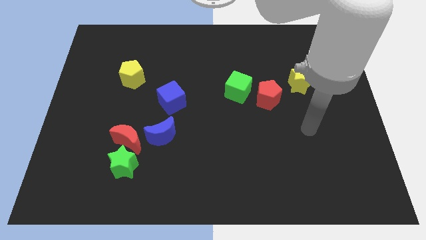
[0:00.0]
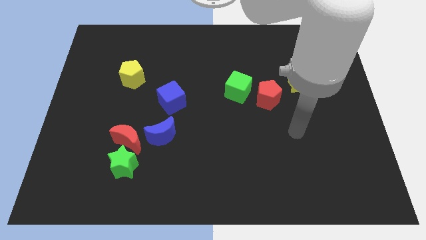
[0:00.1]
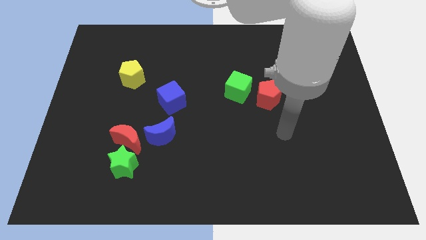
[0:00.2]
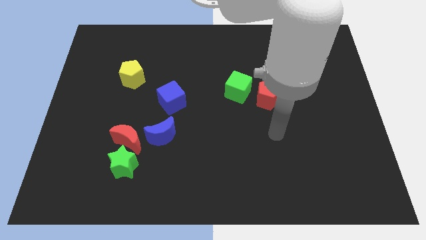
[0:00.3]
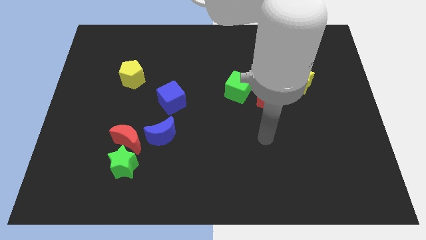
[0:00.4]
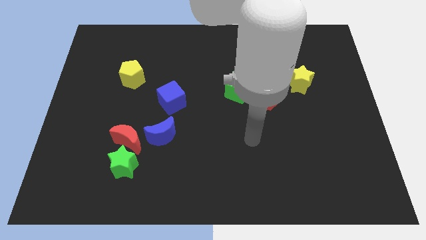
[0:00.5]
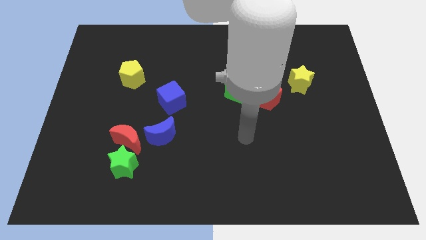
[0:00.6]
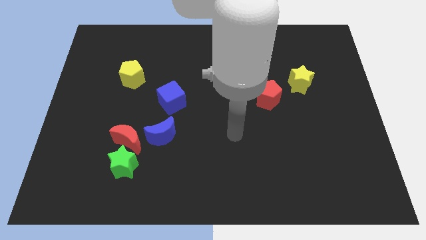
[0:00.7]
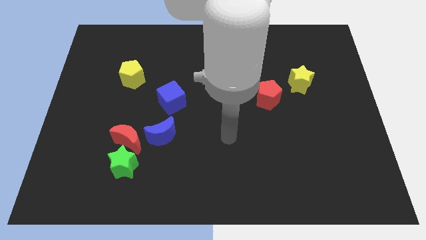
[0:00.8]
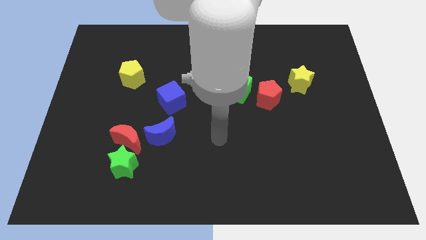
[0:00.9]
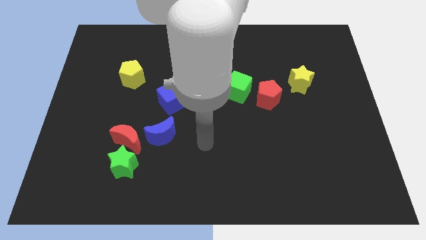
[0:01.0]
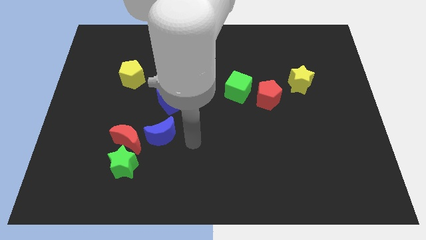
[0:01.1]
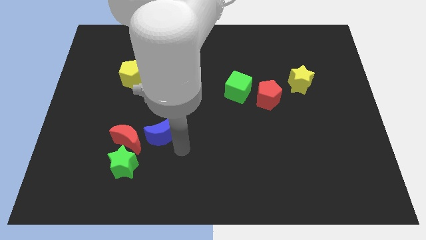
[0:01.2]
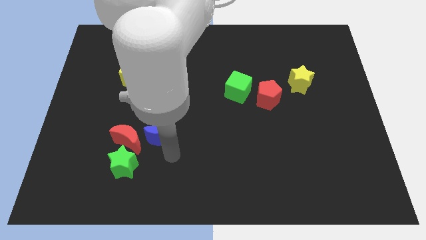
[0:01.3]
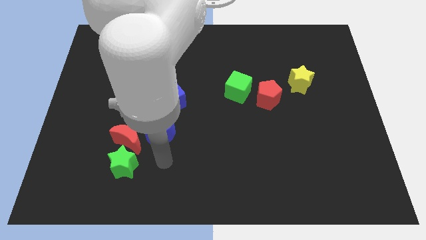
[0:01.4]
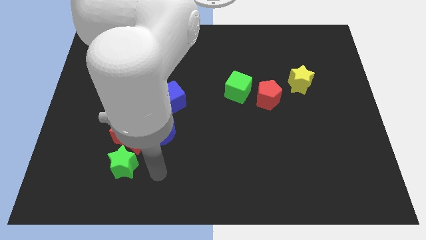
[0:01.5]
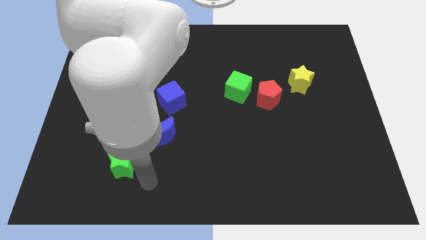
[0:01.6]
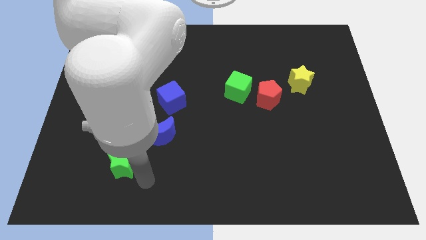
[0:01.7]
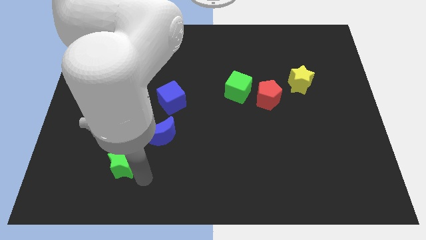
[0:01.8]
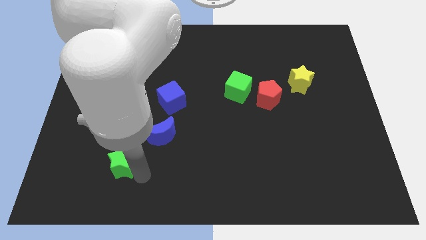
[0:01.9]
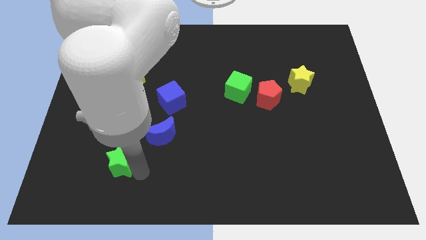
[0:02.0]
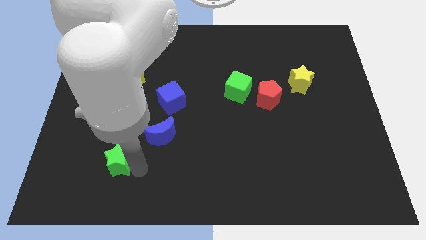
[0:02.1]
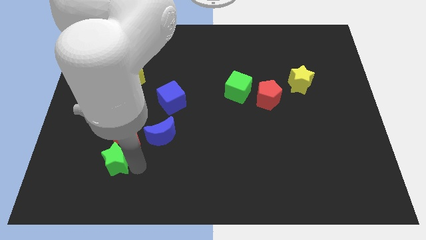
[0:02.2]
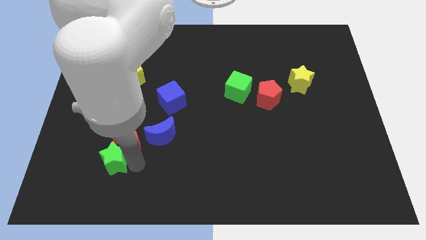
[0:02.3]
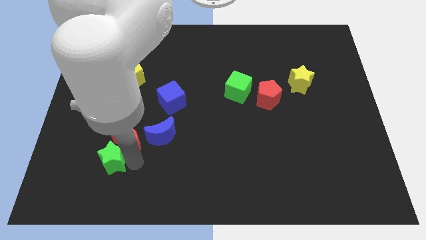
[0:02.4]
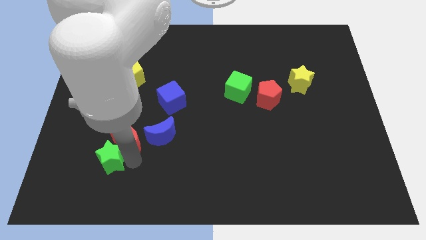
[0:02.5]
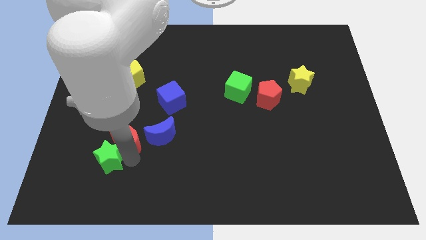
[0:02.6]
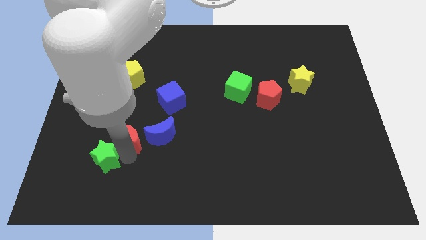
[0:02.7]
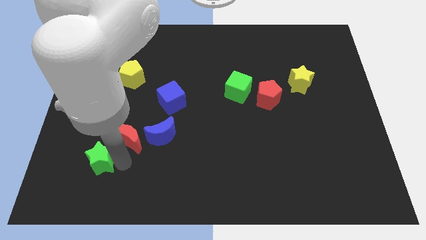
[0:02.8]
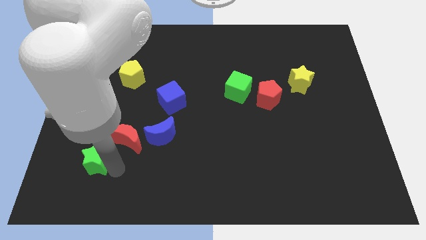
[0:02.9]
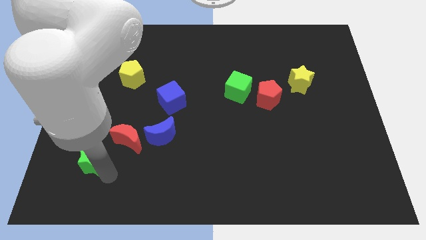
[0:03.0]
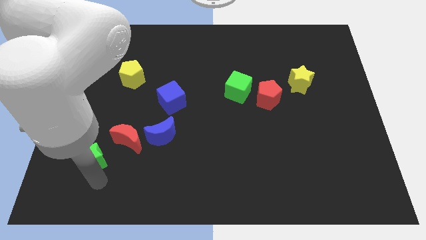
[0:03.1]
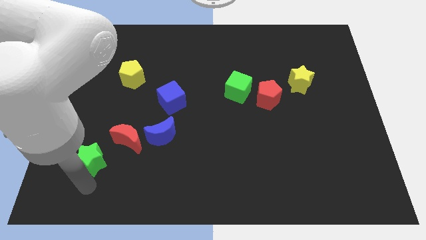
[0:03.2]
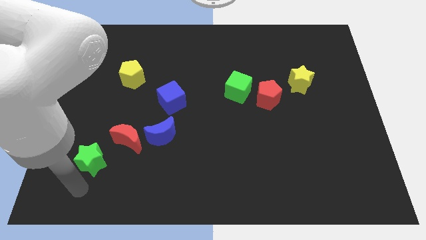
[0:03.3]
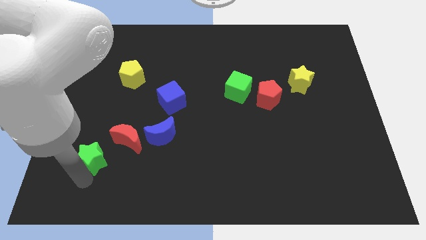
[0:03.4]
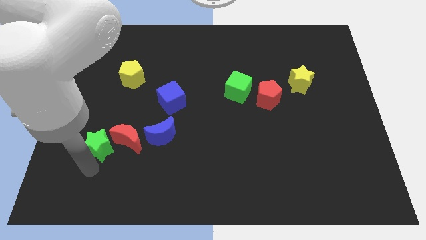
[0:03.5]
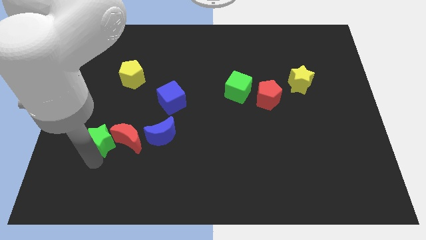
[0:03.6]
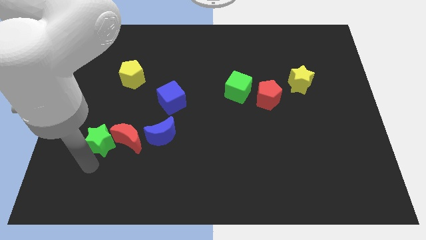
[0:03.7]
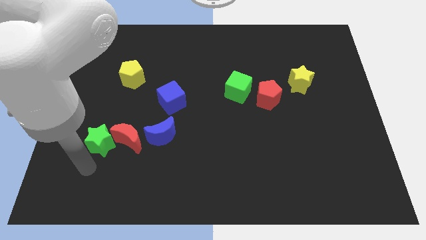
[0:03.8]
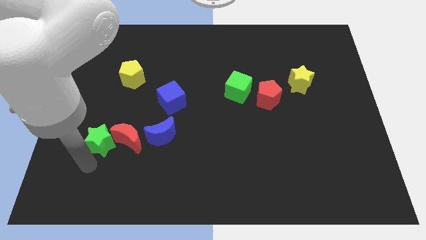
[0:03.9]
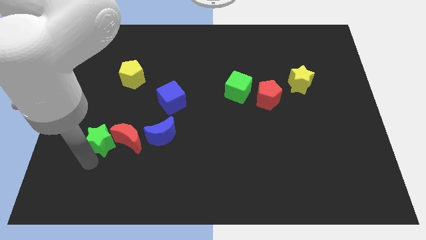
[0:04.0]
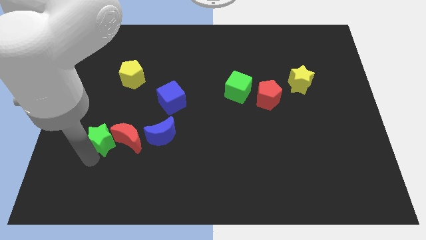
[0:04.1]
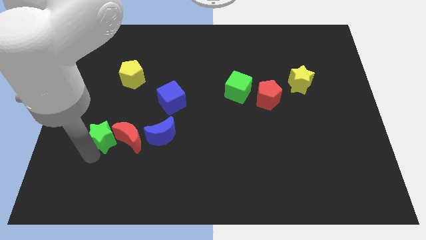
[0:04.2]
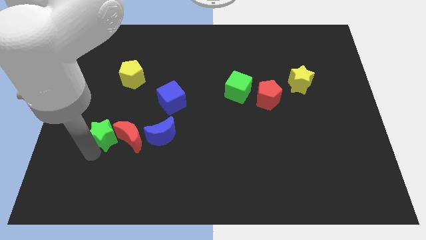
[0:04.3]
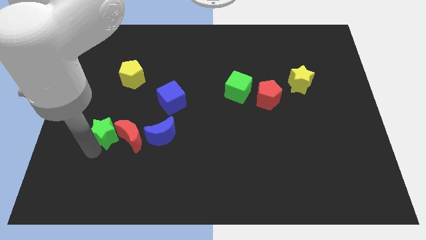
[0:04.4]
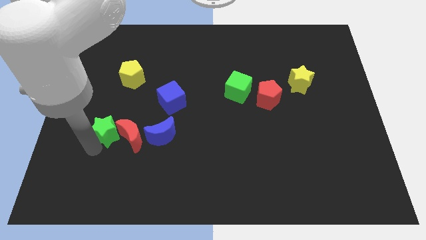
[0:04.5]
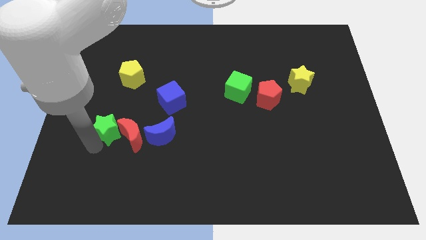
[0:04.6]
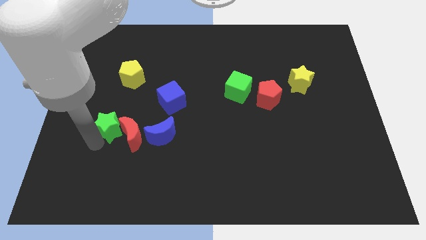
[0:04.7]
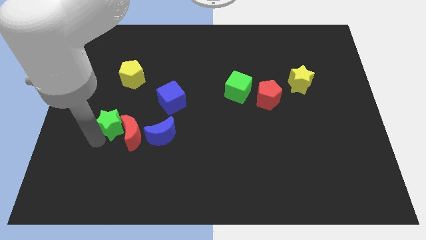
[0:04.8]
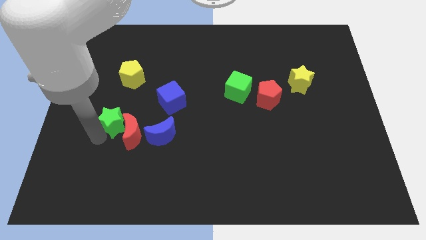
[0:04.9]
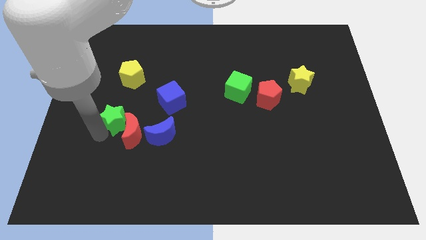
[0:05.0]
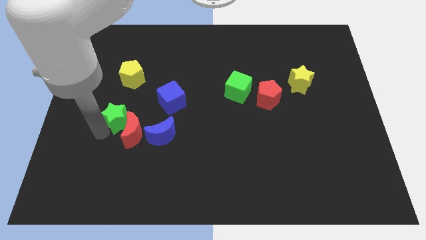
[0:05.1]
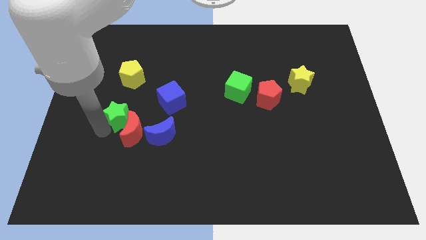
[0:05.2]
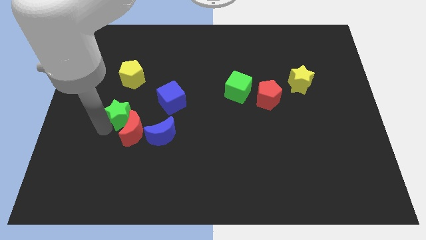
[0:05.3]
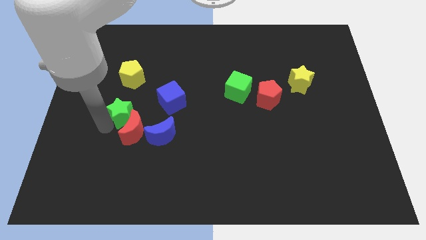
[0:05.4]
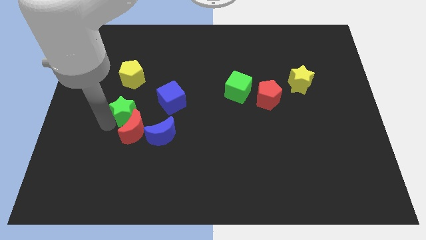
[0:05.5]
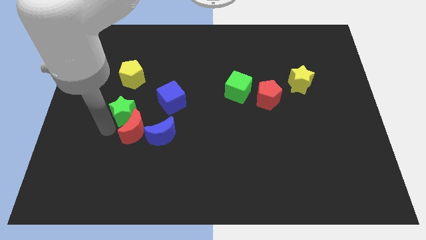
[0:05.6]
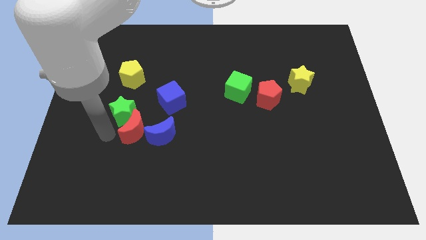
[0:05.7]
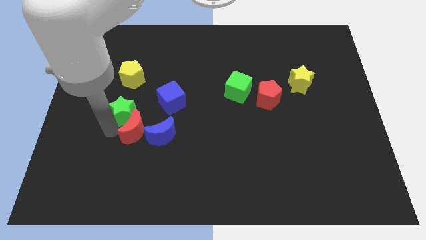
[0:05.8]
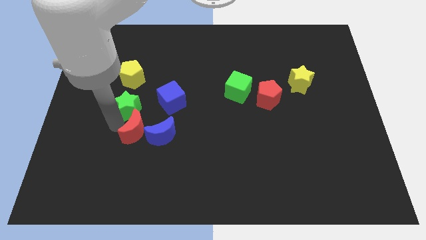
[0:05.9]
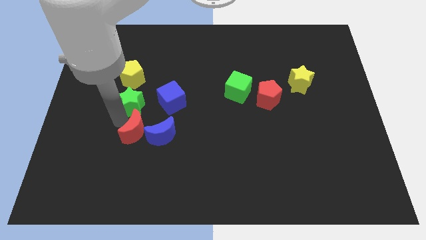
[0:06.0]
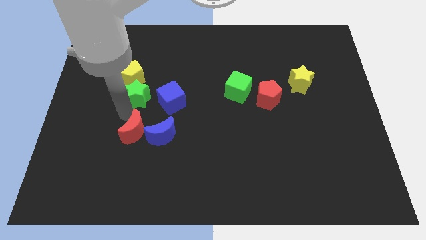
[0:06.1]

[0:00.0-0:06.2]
move the green star to the top left of the blue cube
